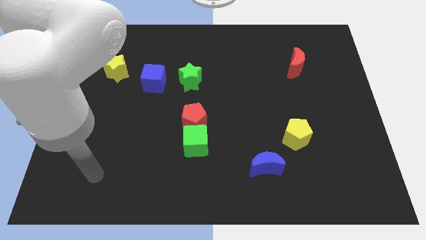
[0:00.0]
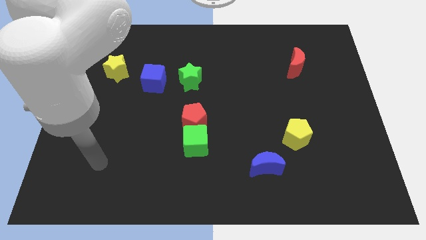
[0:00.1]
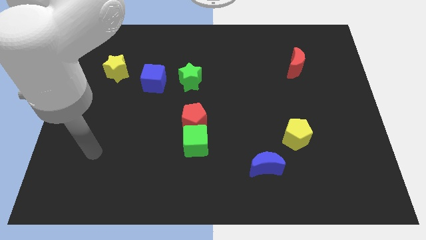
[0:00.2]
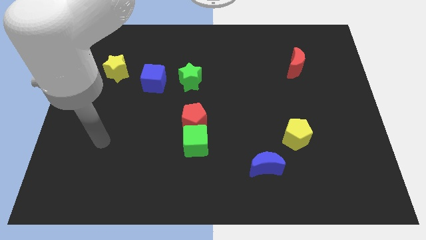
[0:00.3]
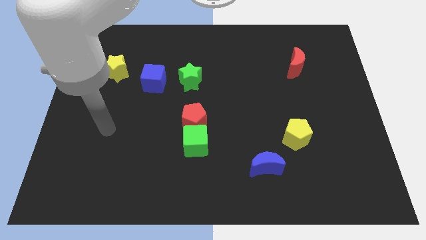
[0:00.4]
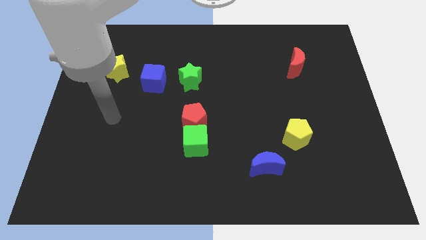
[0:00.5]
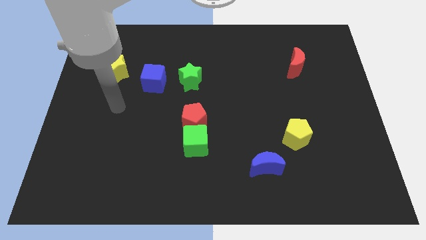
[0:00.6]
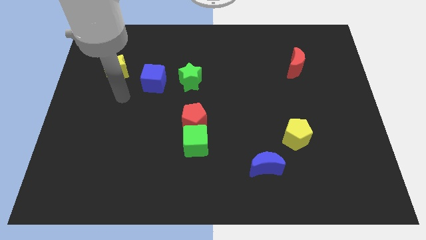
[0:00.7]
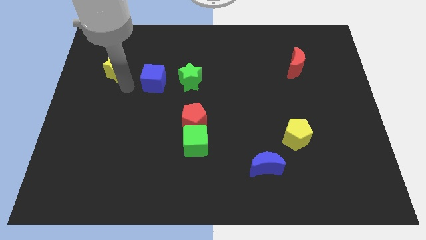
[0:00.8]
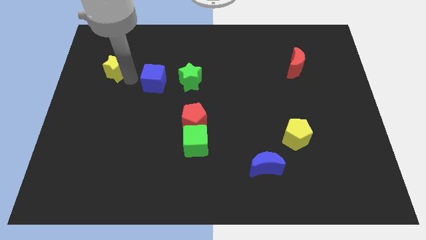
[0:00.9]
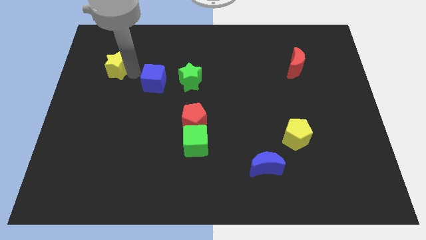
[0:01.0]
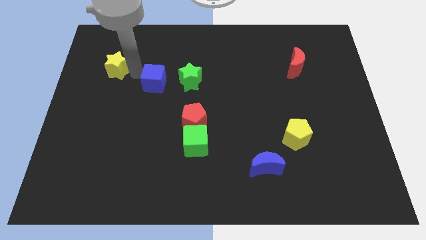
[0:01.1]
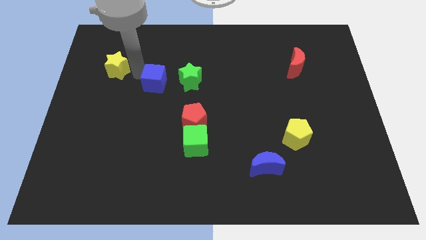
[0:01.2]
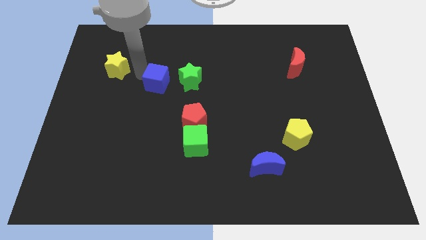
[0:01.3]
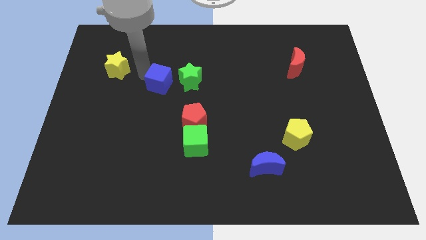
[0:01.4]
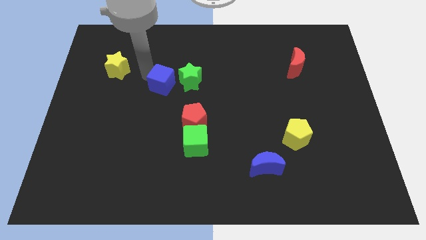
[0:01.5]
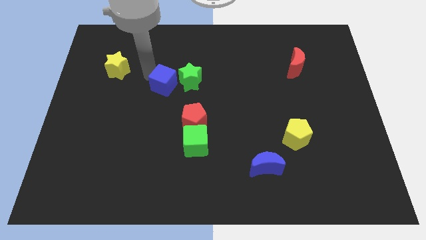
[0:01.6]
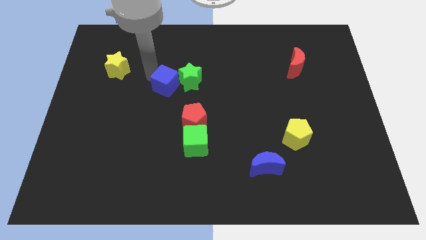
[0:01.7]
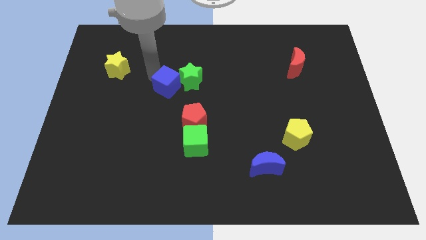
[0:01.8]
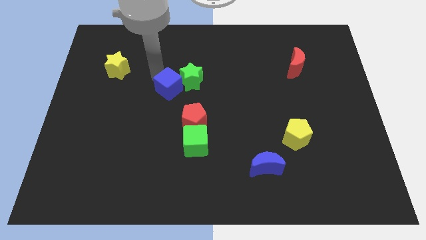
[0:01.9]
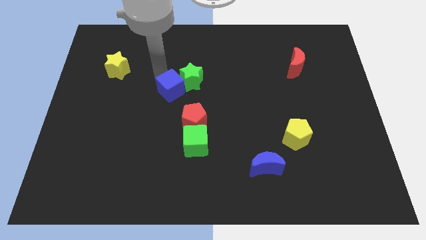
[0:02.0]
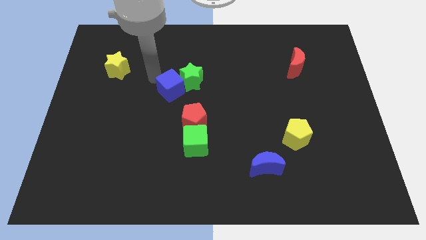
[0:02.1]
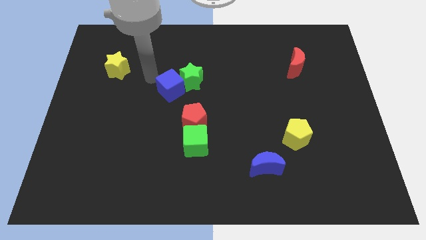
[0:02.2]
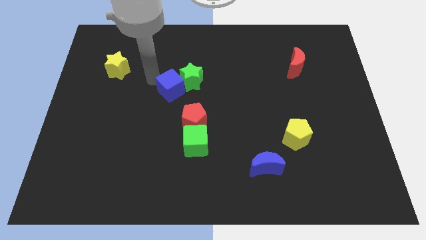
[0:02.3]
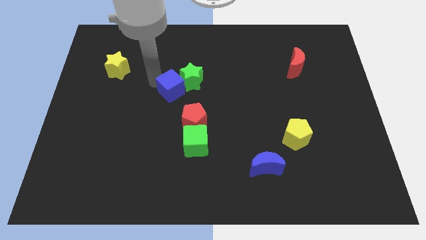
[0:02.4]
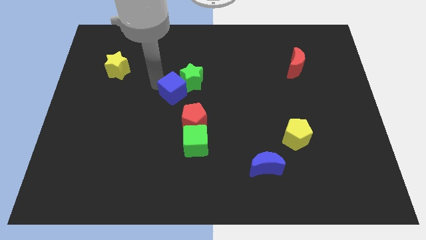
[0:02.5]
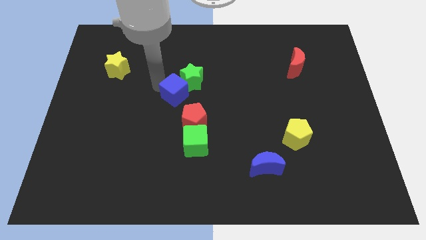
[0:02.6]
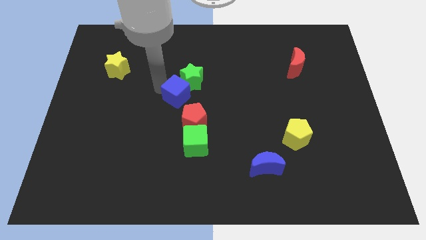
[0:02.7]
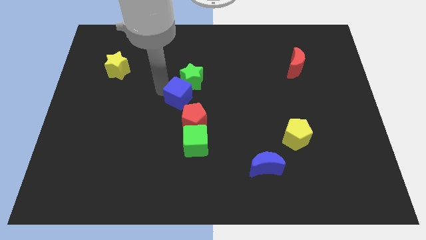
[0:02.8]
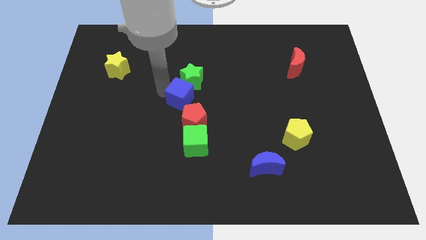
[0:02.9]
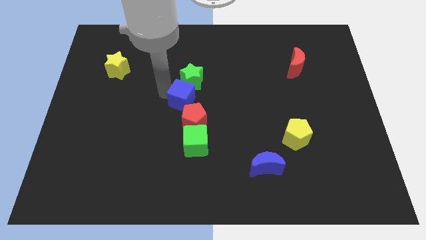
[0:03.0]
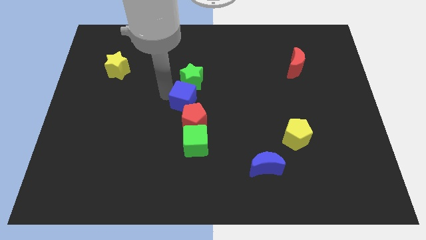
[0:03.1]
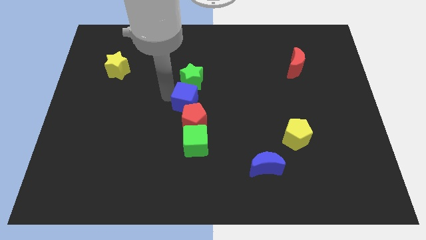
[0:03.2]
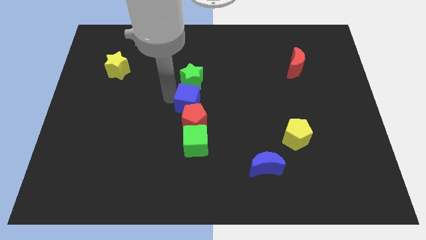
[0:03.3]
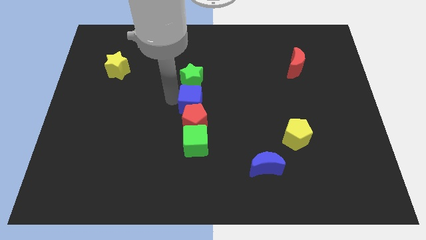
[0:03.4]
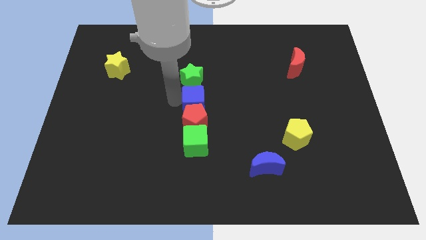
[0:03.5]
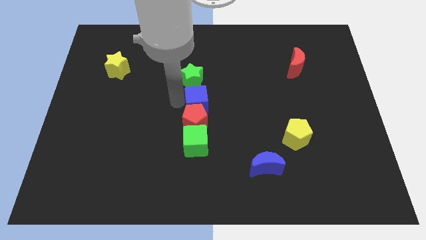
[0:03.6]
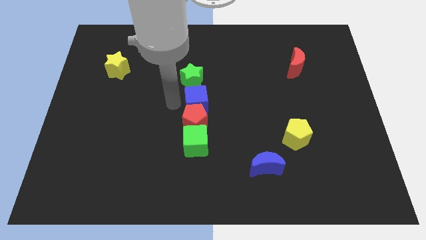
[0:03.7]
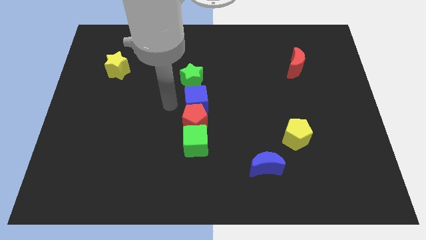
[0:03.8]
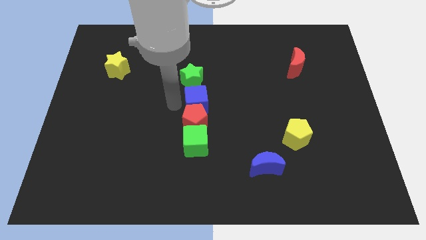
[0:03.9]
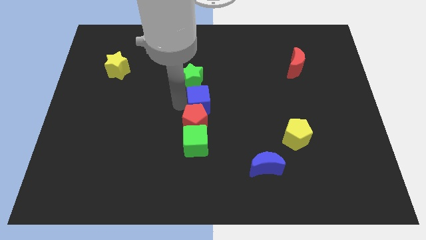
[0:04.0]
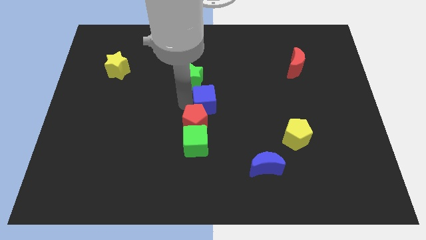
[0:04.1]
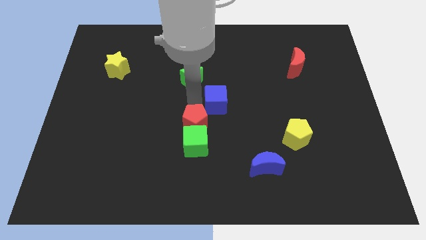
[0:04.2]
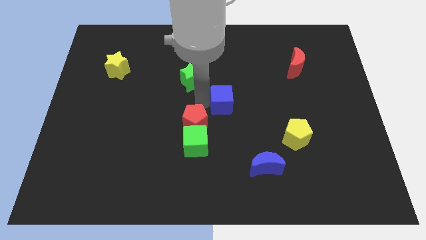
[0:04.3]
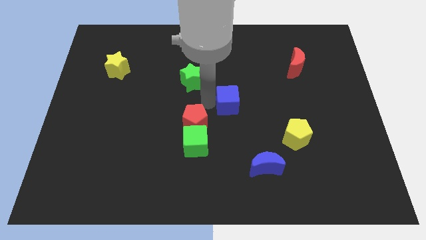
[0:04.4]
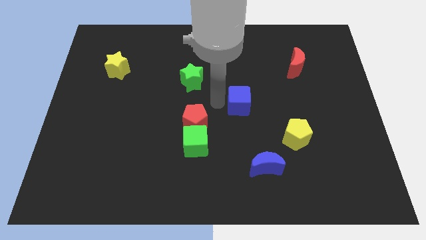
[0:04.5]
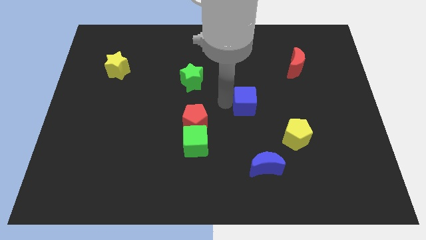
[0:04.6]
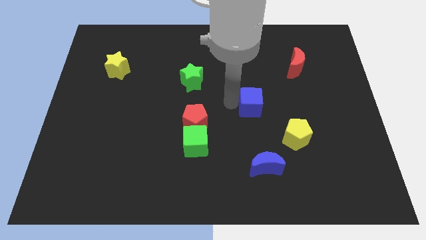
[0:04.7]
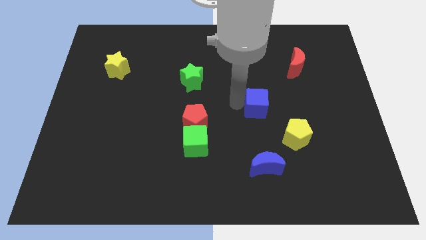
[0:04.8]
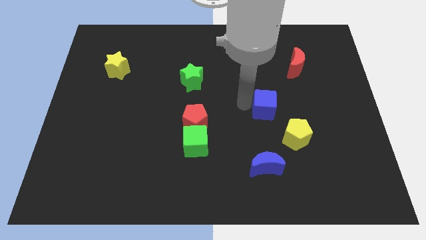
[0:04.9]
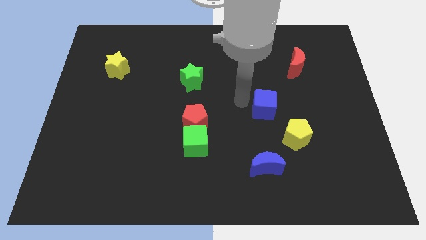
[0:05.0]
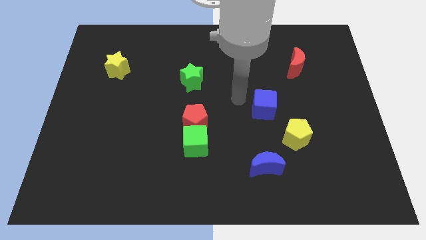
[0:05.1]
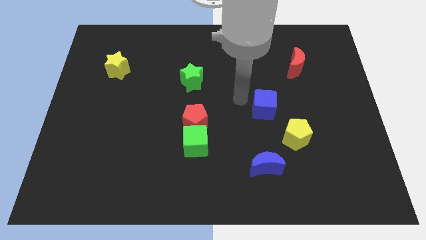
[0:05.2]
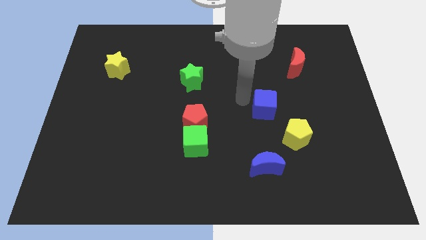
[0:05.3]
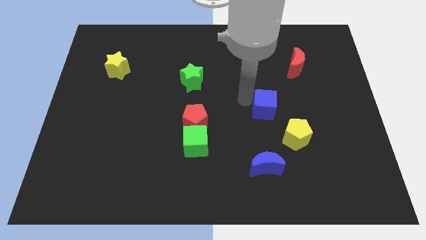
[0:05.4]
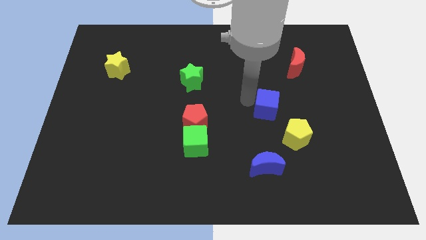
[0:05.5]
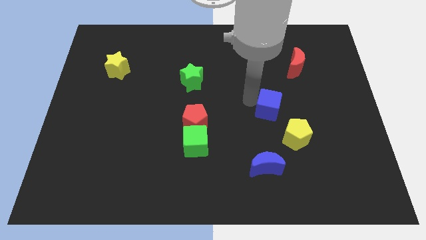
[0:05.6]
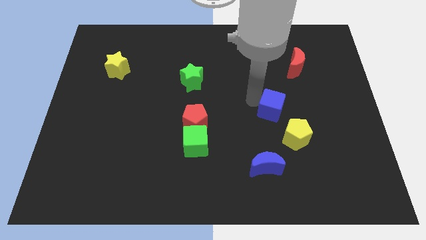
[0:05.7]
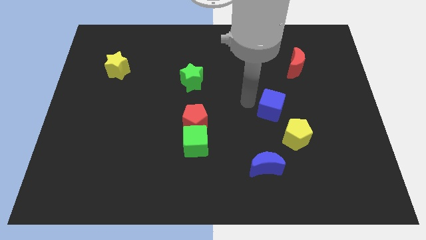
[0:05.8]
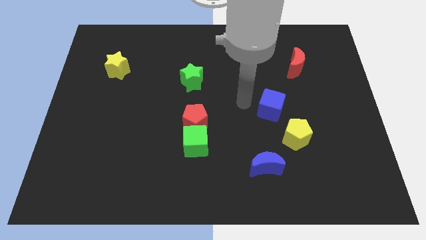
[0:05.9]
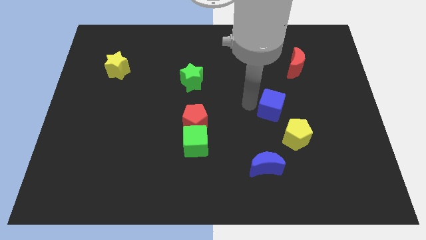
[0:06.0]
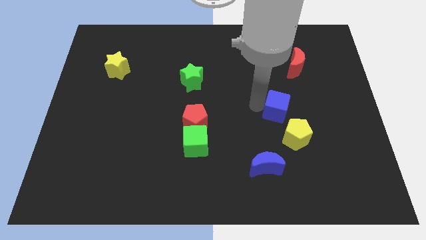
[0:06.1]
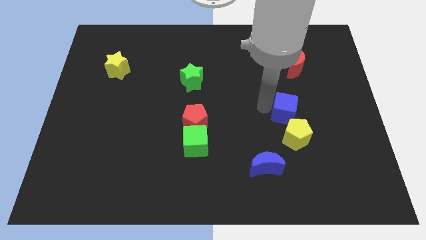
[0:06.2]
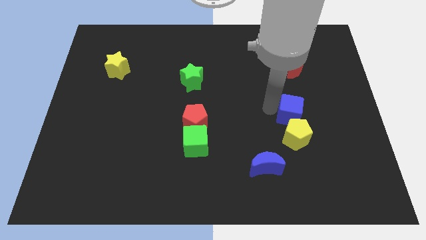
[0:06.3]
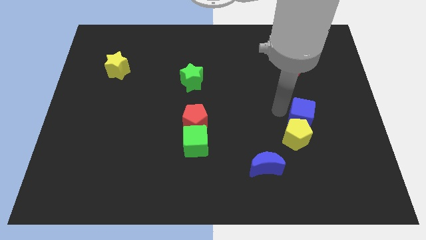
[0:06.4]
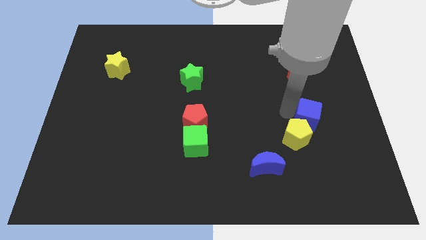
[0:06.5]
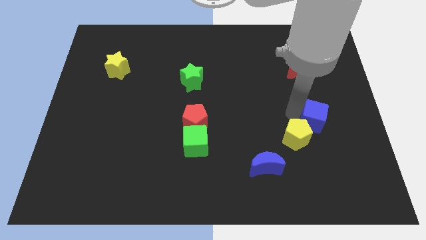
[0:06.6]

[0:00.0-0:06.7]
slide the blue cube to the right side of the yellow pentagon
